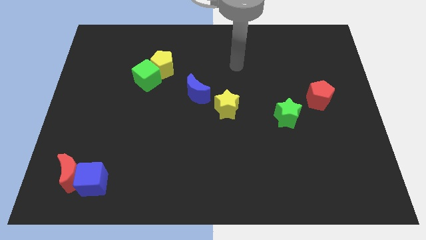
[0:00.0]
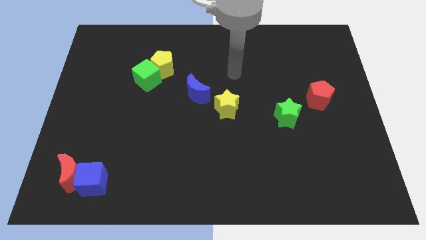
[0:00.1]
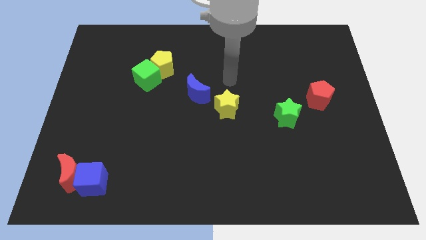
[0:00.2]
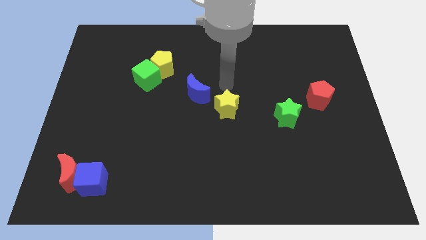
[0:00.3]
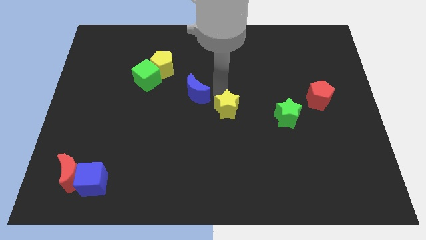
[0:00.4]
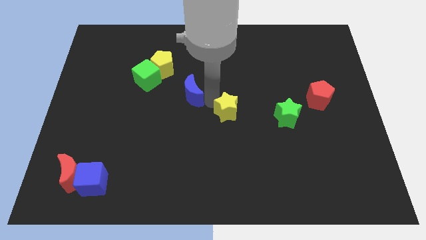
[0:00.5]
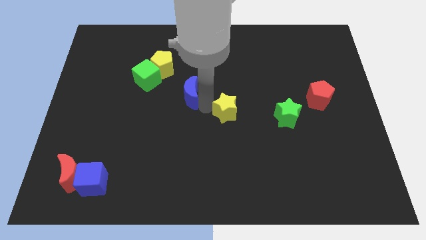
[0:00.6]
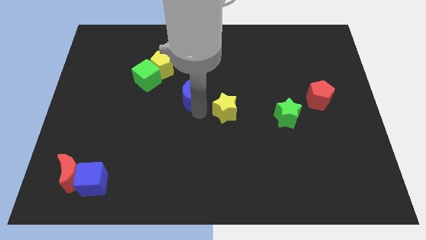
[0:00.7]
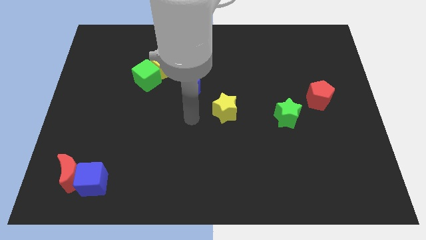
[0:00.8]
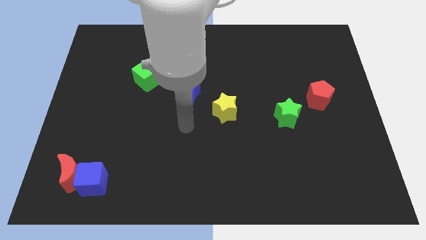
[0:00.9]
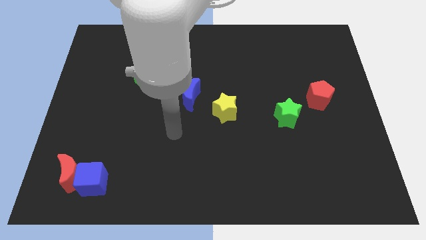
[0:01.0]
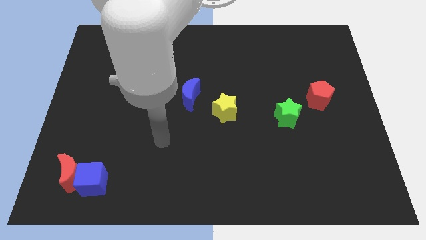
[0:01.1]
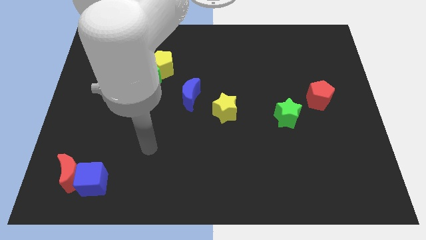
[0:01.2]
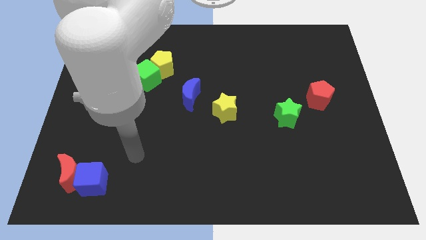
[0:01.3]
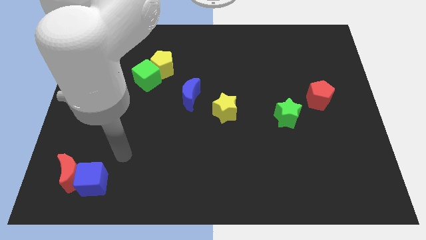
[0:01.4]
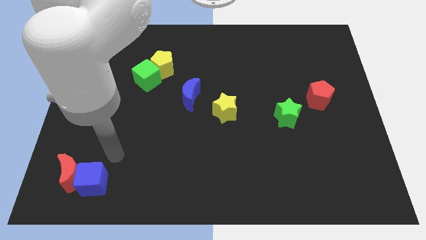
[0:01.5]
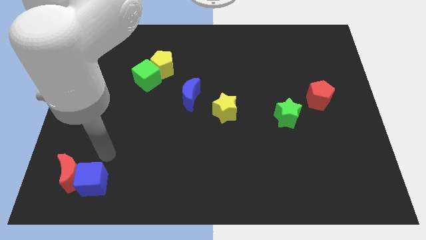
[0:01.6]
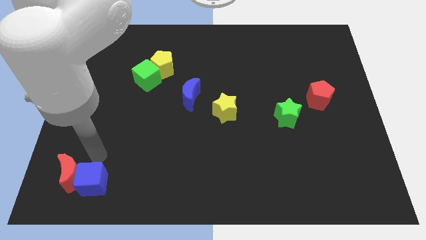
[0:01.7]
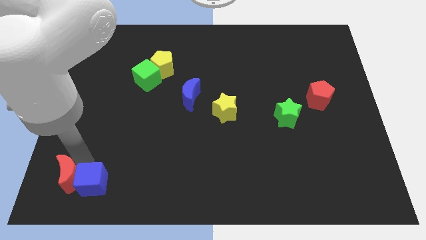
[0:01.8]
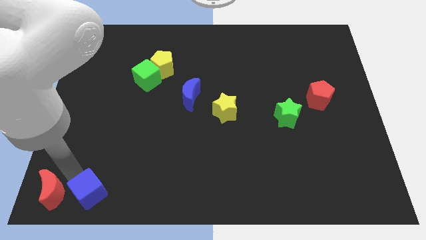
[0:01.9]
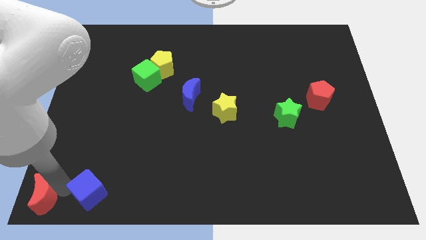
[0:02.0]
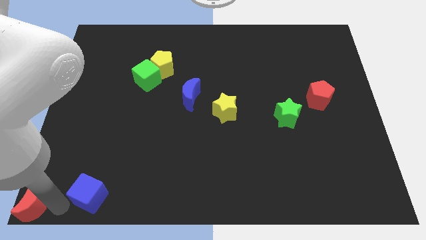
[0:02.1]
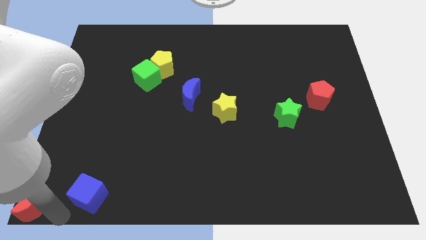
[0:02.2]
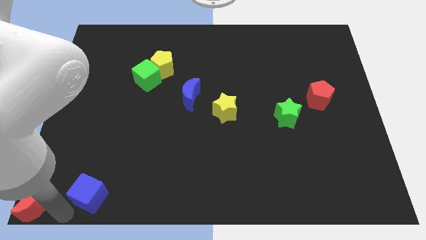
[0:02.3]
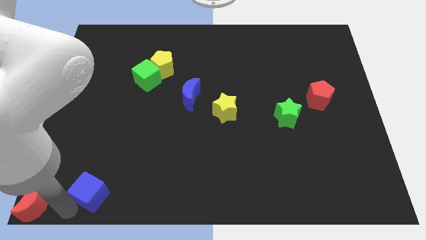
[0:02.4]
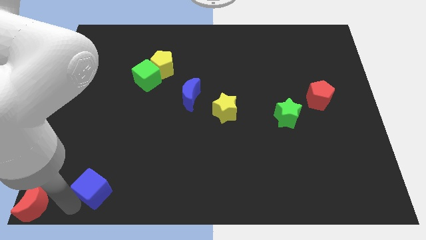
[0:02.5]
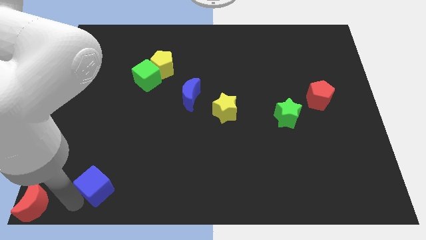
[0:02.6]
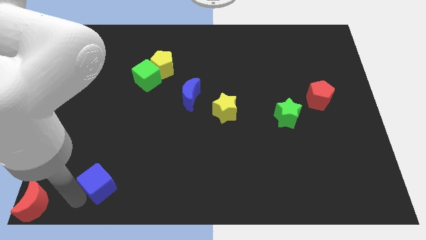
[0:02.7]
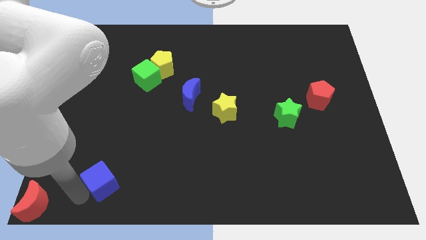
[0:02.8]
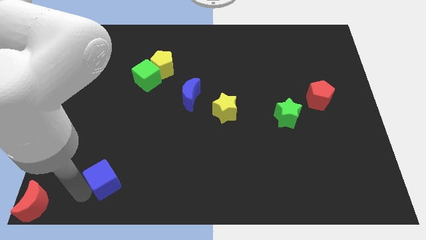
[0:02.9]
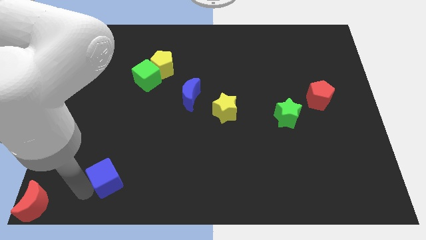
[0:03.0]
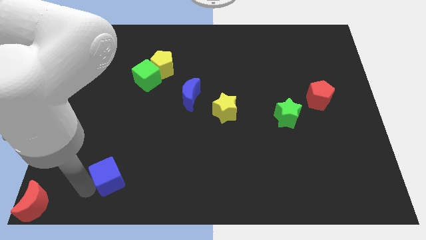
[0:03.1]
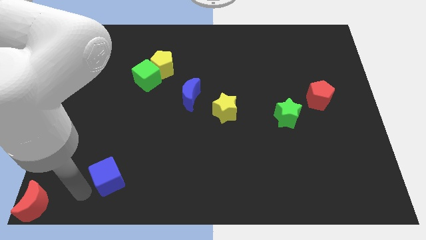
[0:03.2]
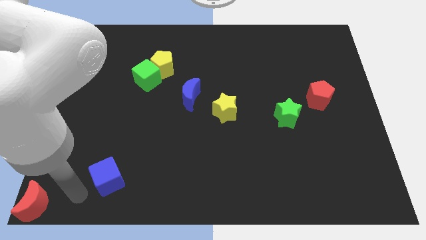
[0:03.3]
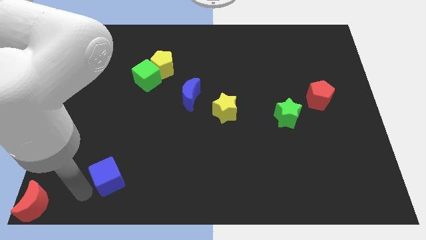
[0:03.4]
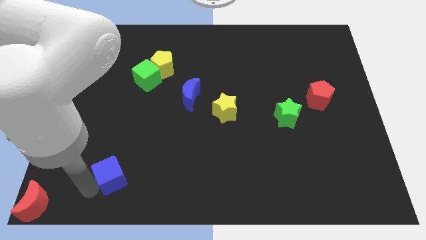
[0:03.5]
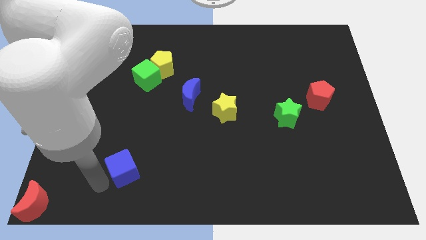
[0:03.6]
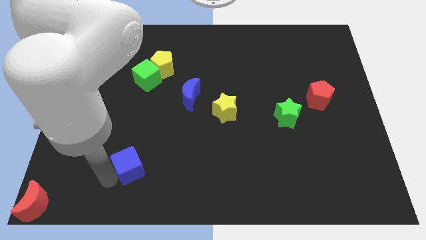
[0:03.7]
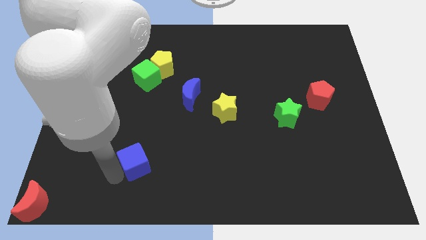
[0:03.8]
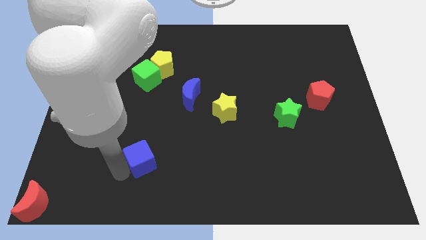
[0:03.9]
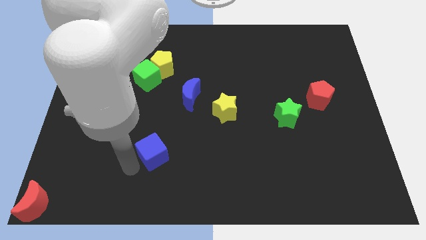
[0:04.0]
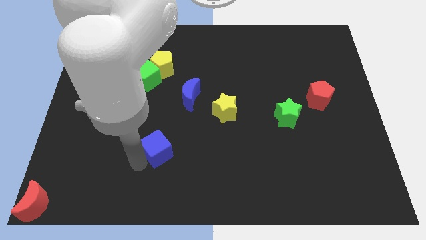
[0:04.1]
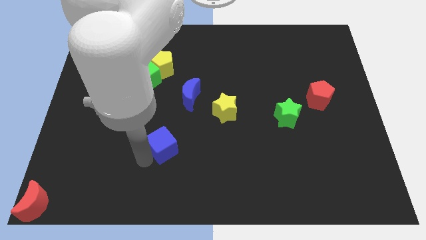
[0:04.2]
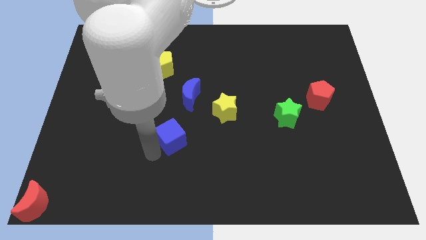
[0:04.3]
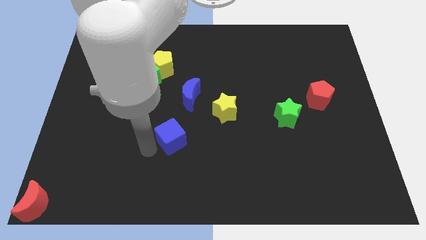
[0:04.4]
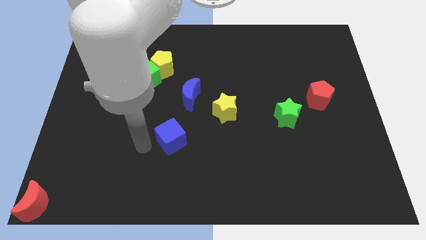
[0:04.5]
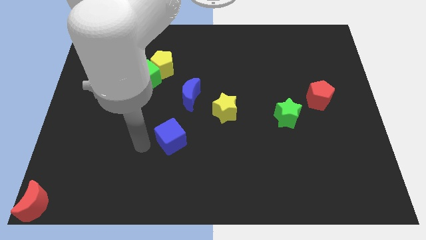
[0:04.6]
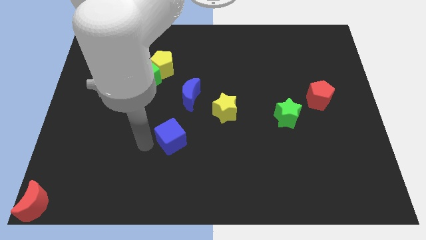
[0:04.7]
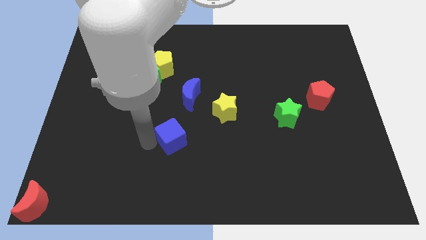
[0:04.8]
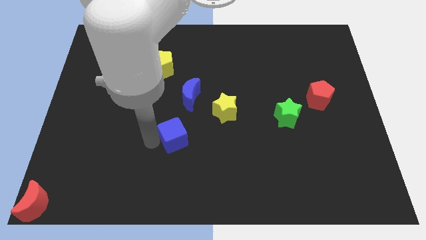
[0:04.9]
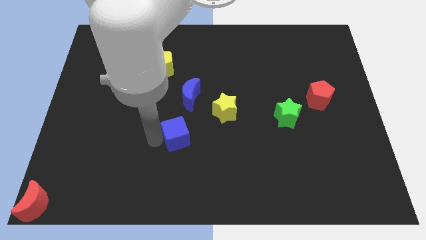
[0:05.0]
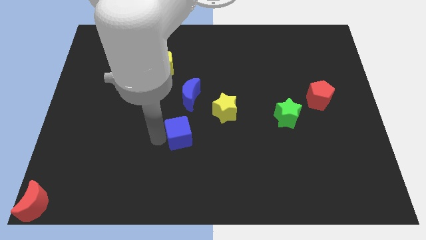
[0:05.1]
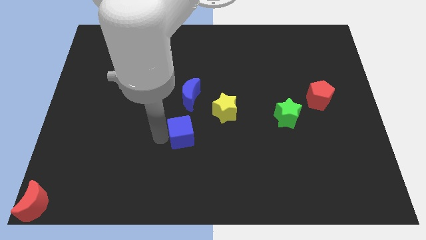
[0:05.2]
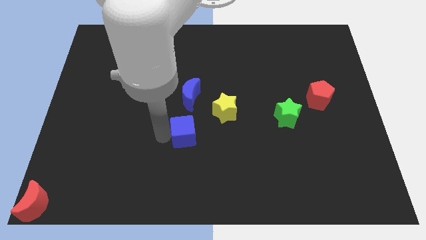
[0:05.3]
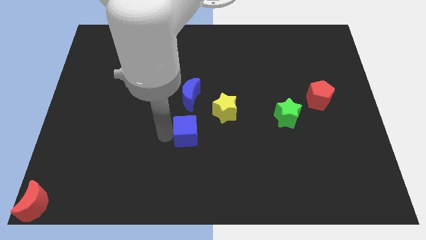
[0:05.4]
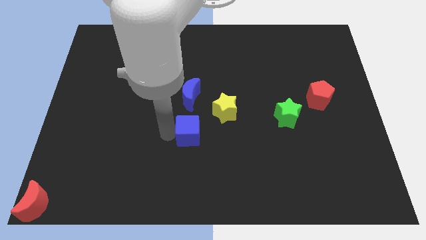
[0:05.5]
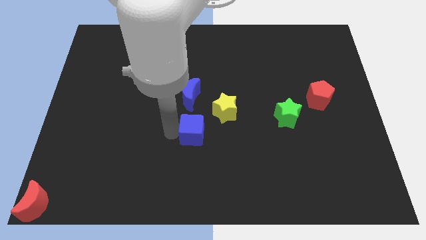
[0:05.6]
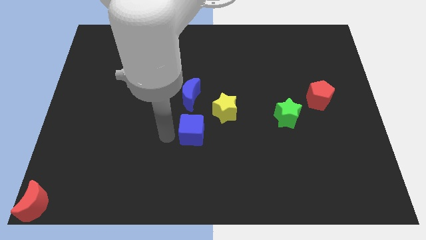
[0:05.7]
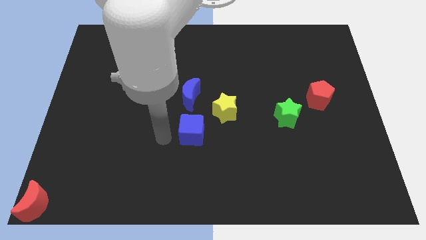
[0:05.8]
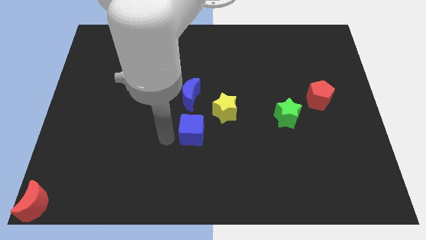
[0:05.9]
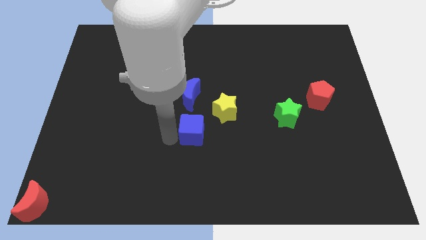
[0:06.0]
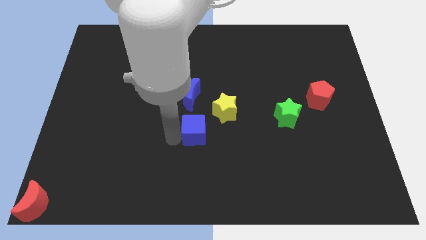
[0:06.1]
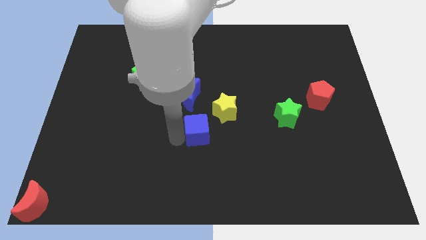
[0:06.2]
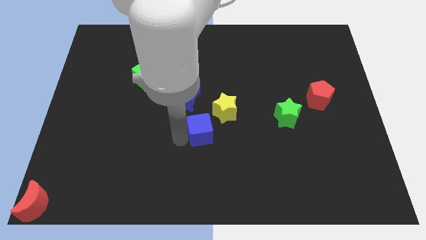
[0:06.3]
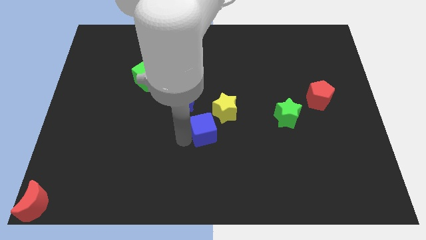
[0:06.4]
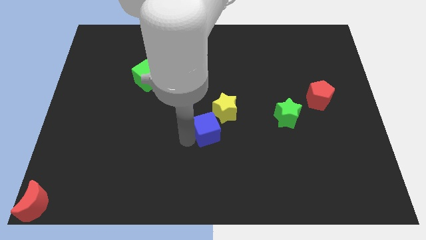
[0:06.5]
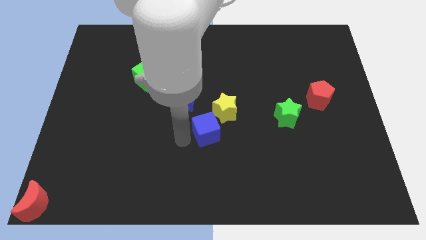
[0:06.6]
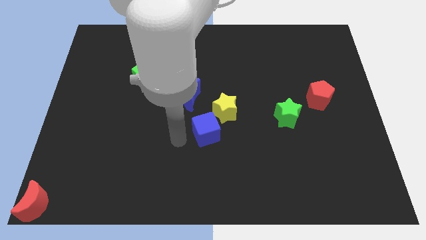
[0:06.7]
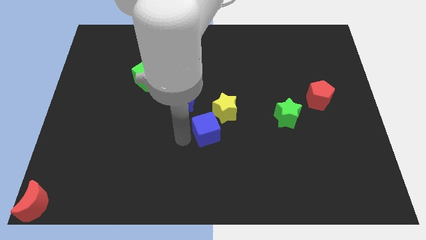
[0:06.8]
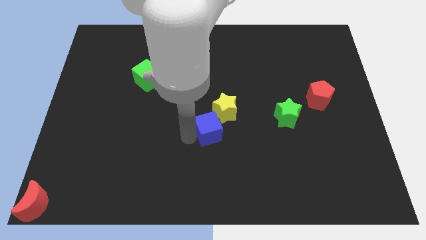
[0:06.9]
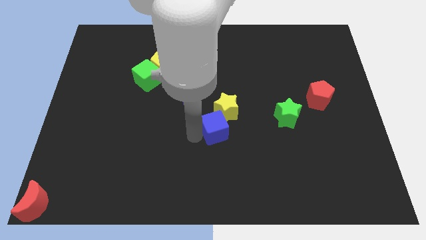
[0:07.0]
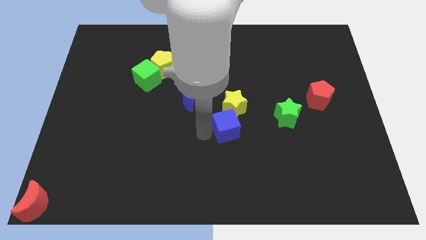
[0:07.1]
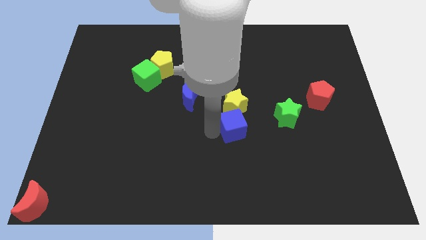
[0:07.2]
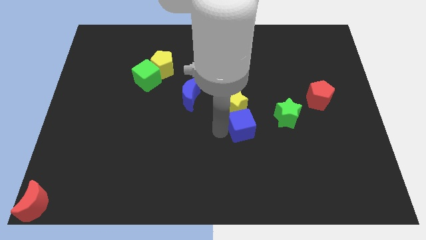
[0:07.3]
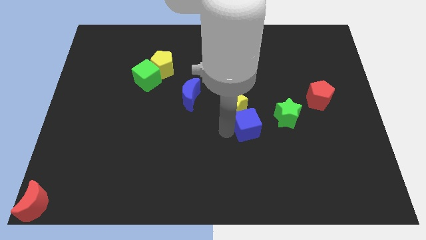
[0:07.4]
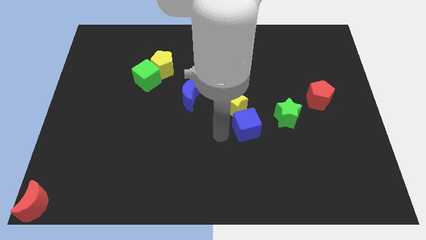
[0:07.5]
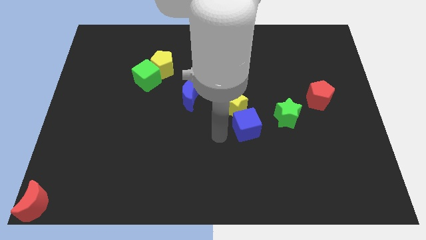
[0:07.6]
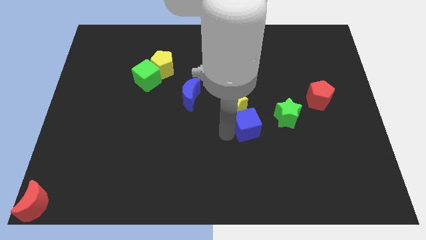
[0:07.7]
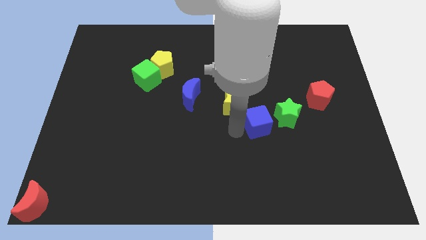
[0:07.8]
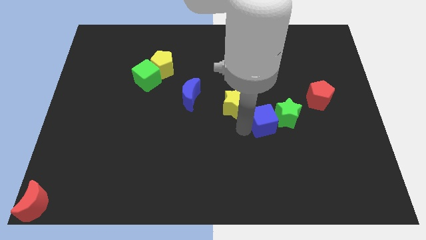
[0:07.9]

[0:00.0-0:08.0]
move the blue cube close to the green star
